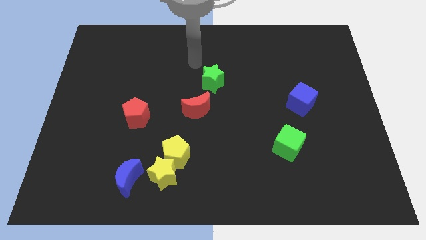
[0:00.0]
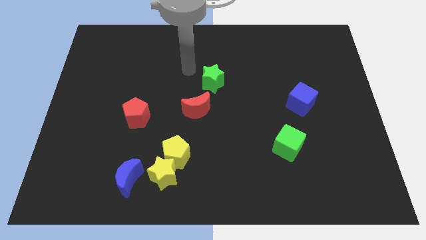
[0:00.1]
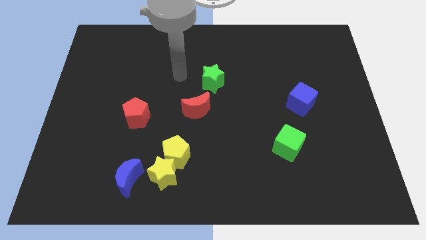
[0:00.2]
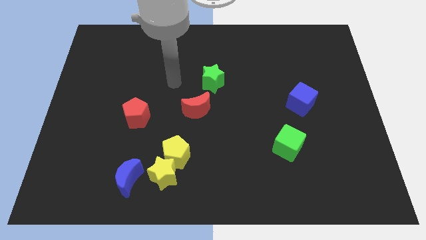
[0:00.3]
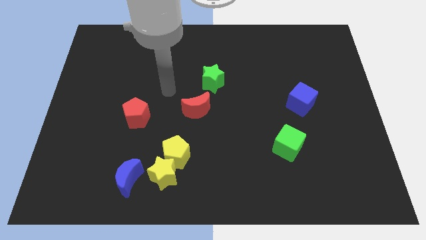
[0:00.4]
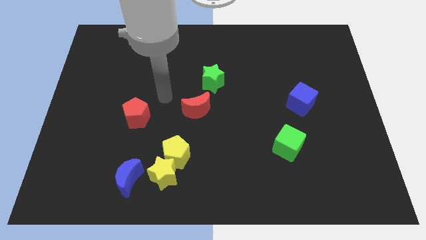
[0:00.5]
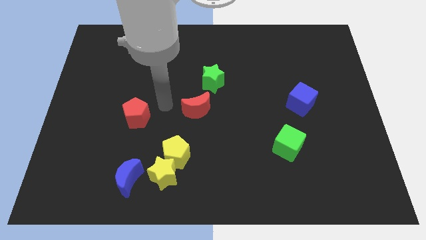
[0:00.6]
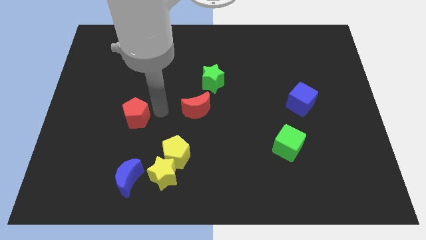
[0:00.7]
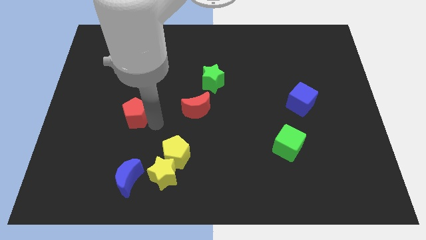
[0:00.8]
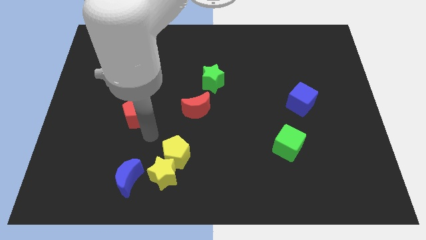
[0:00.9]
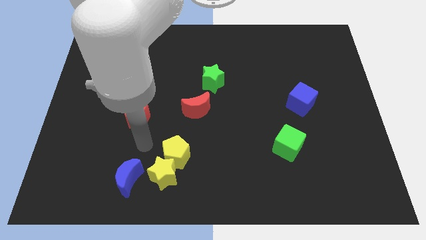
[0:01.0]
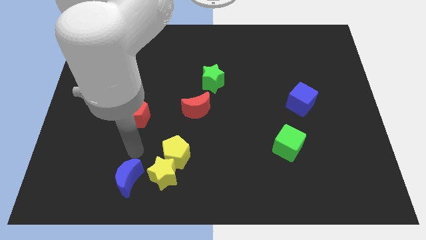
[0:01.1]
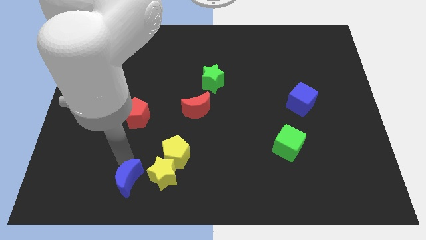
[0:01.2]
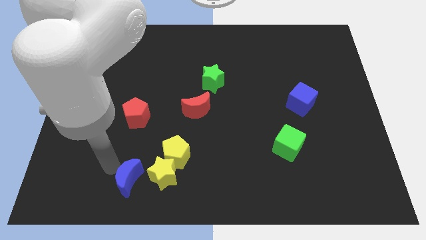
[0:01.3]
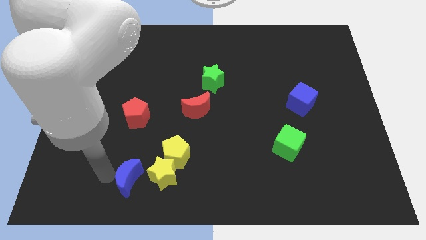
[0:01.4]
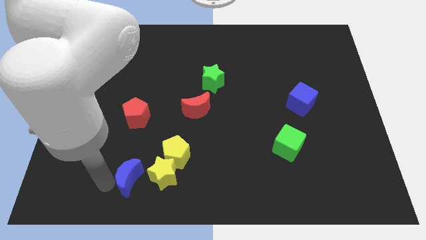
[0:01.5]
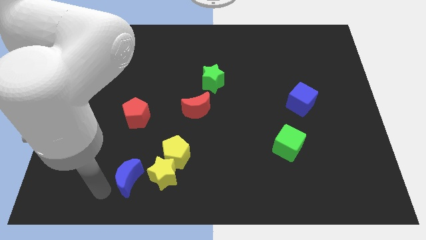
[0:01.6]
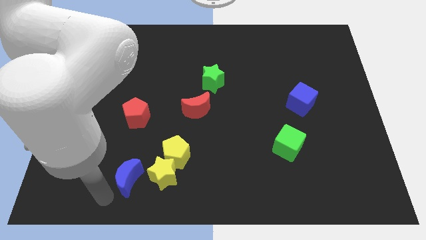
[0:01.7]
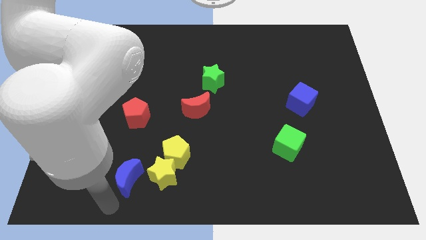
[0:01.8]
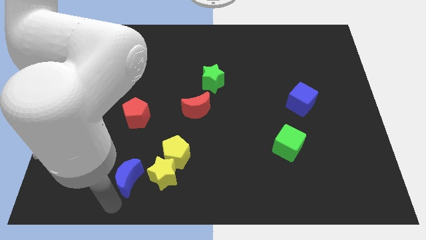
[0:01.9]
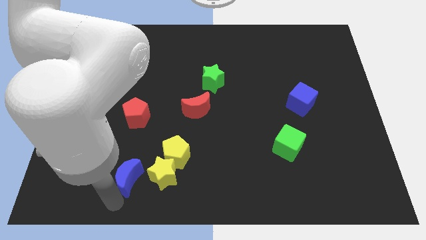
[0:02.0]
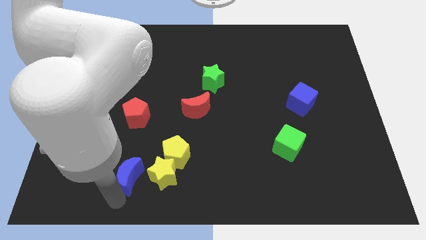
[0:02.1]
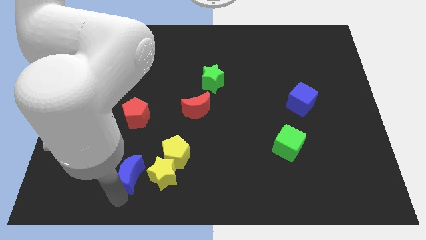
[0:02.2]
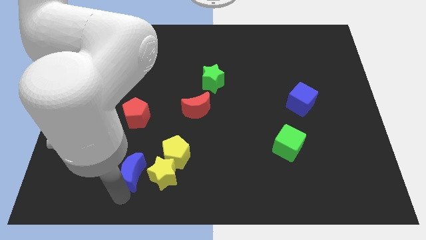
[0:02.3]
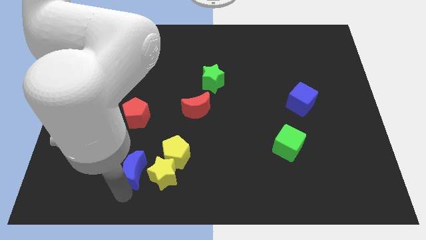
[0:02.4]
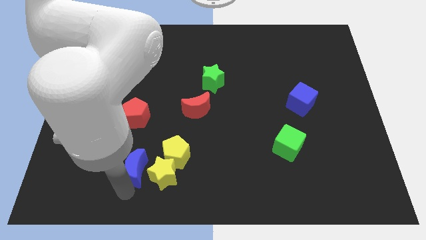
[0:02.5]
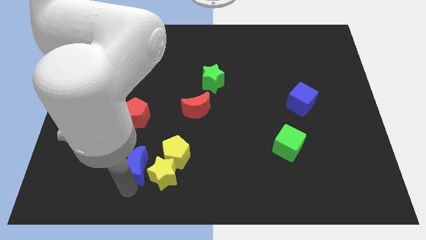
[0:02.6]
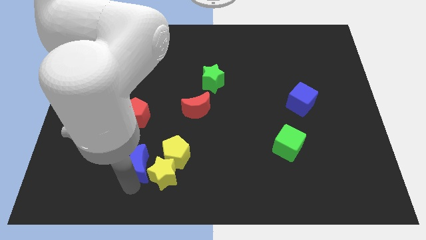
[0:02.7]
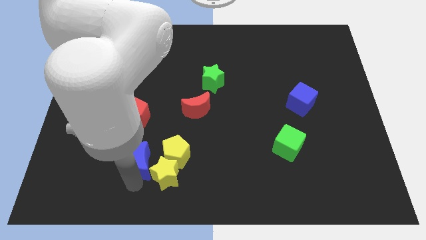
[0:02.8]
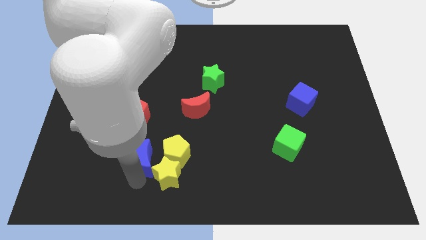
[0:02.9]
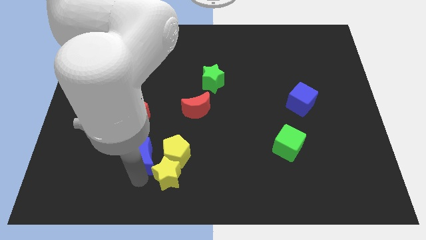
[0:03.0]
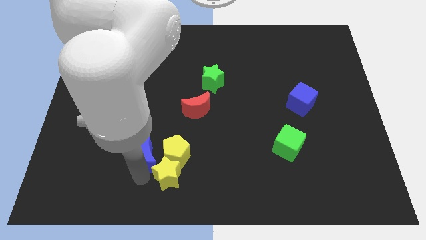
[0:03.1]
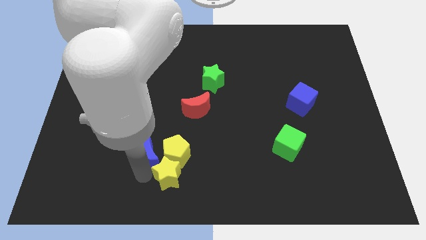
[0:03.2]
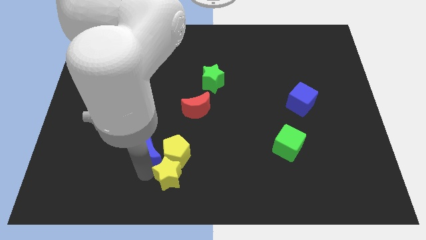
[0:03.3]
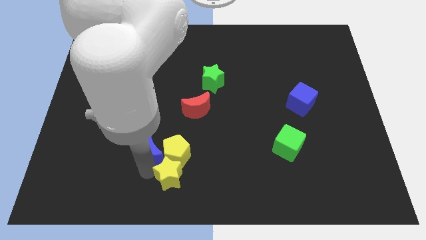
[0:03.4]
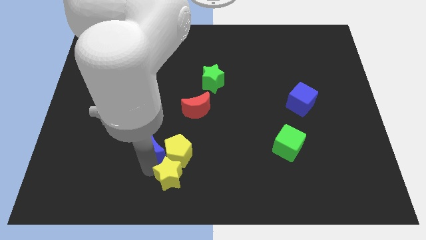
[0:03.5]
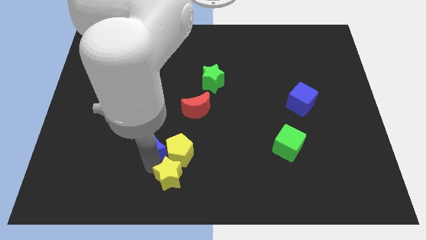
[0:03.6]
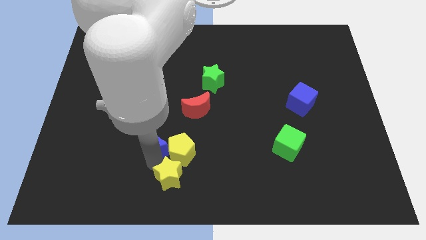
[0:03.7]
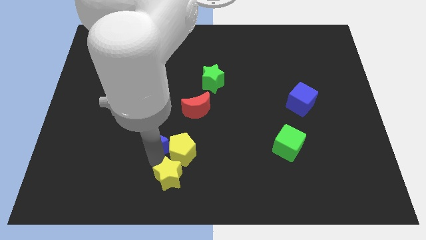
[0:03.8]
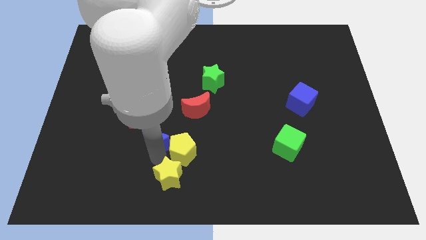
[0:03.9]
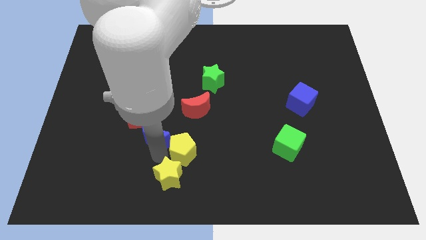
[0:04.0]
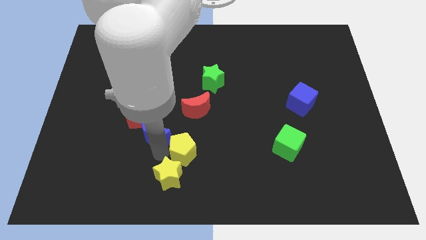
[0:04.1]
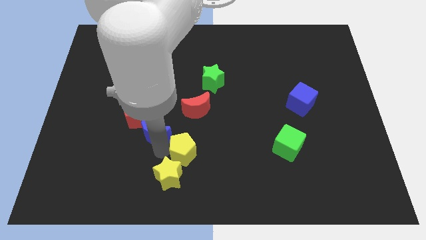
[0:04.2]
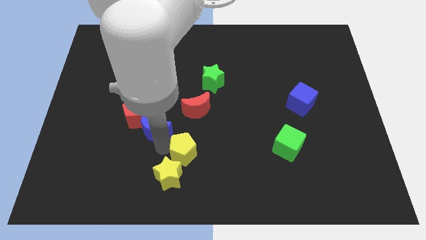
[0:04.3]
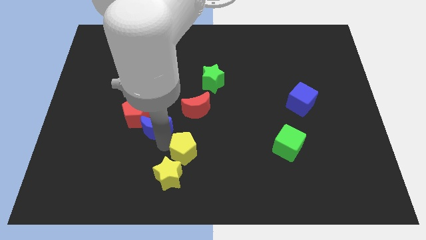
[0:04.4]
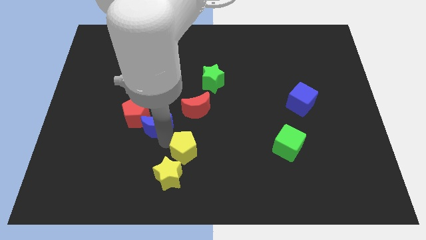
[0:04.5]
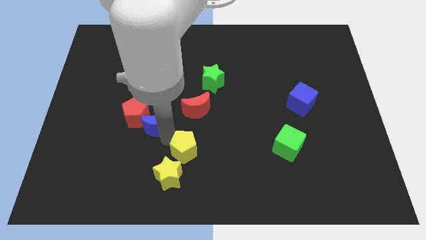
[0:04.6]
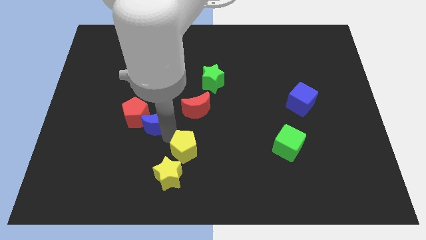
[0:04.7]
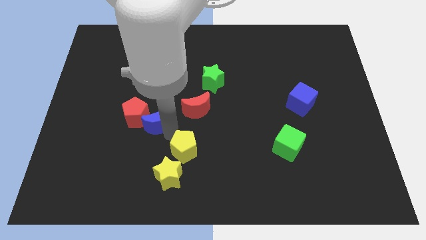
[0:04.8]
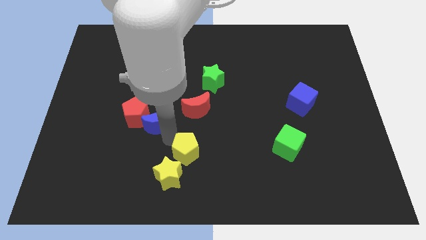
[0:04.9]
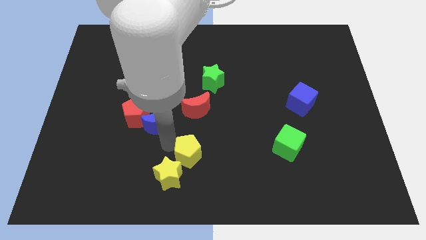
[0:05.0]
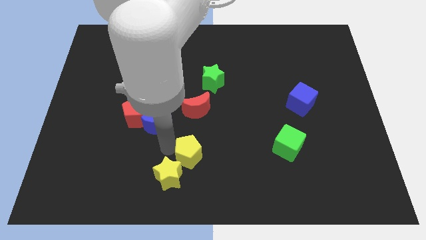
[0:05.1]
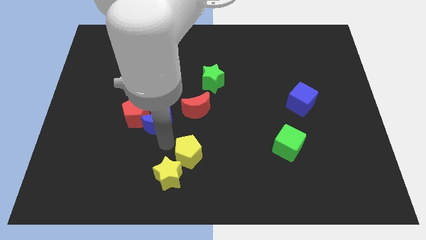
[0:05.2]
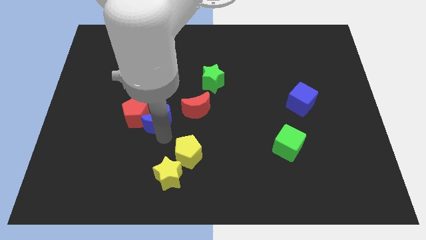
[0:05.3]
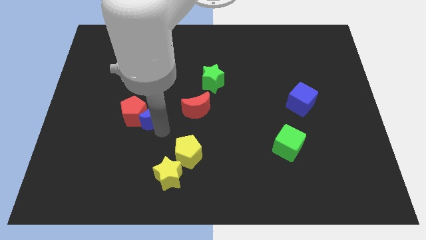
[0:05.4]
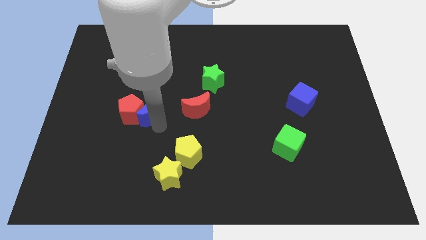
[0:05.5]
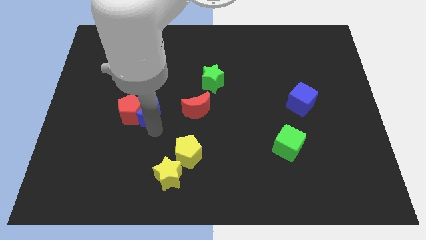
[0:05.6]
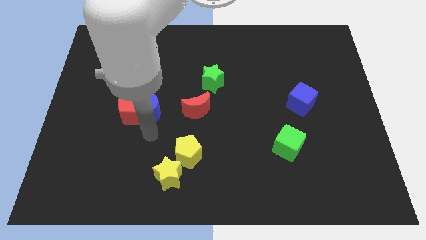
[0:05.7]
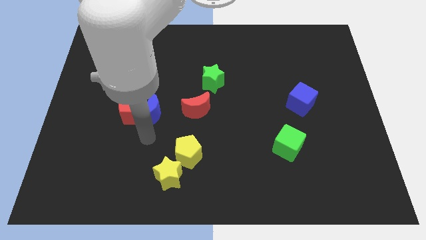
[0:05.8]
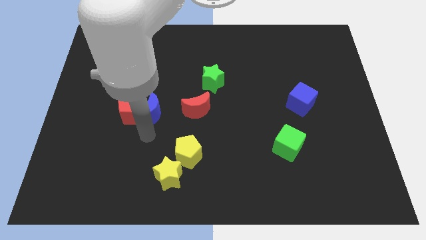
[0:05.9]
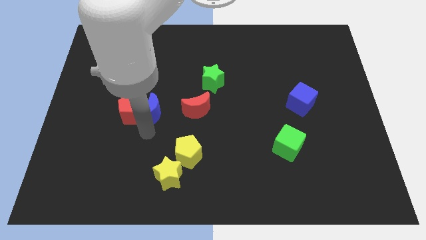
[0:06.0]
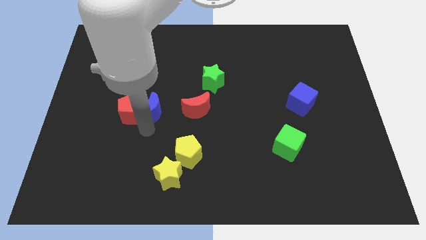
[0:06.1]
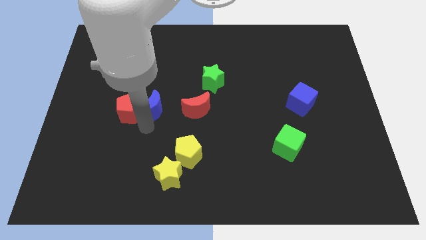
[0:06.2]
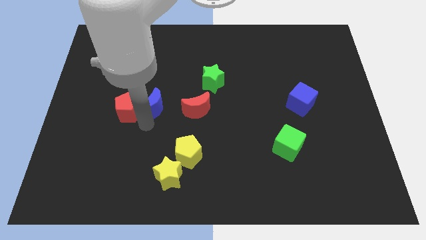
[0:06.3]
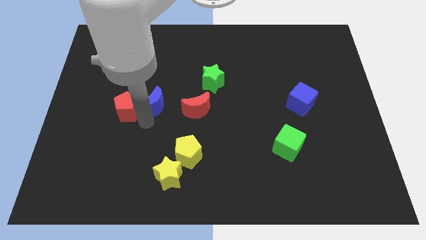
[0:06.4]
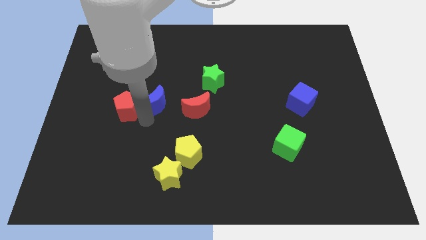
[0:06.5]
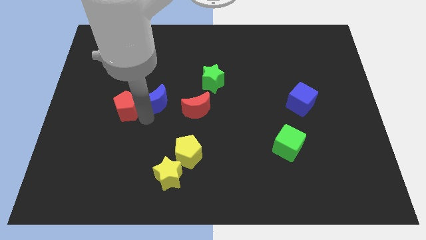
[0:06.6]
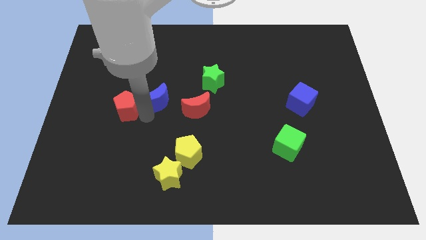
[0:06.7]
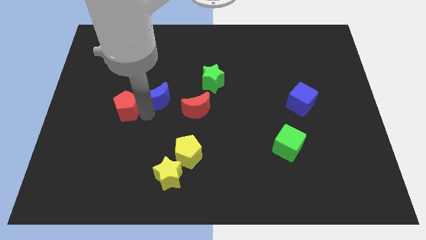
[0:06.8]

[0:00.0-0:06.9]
move the blue moon upwards

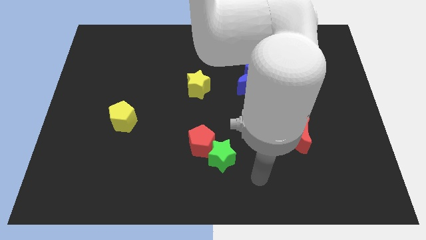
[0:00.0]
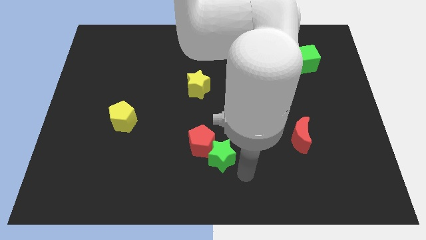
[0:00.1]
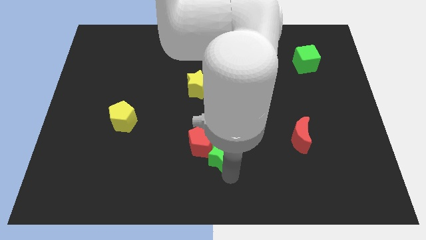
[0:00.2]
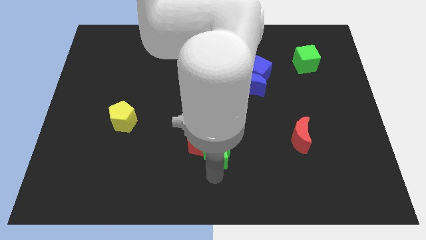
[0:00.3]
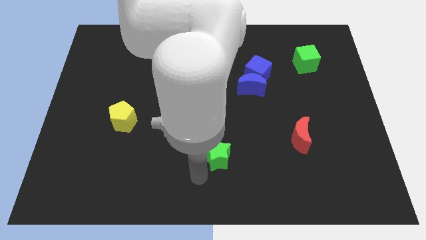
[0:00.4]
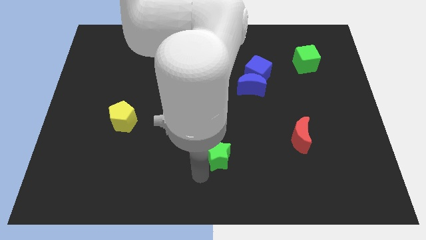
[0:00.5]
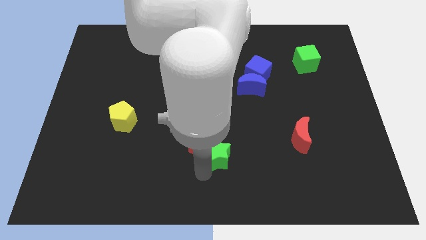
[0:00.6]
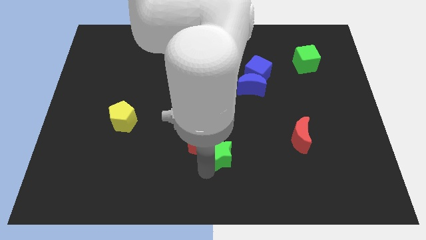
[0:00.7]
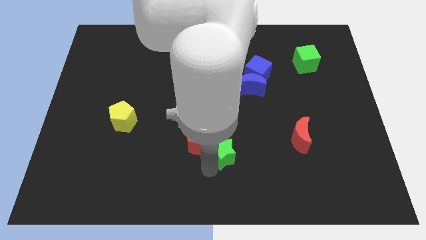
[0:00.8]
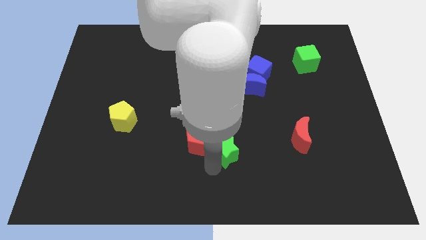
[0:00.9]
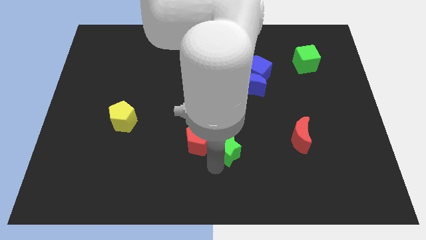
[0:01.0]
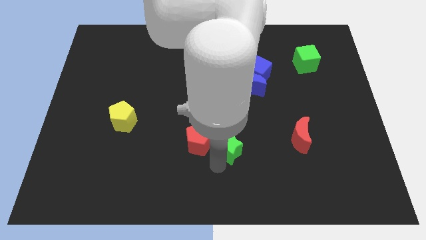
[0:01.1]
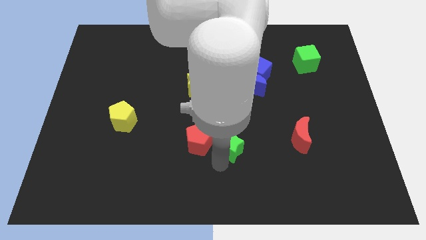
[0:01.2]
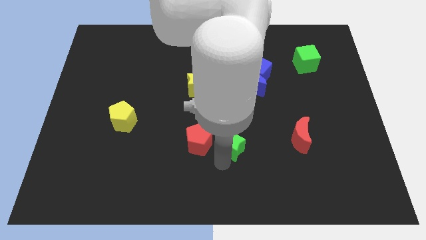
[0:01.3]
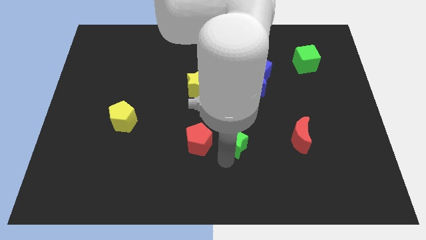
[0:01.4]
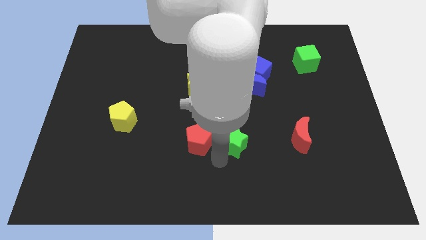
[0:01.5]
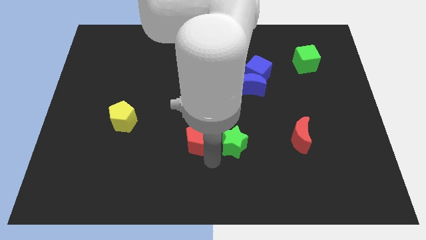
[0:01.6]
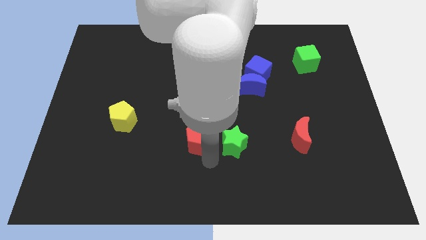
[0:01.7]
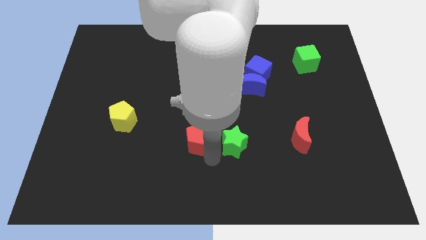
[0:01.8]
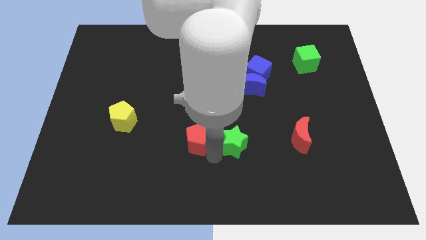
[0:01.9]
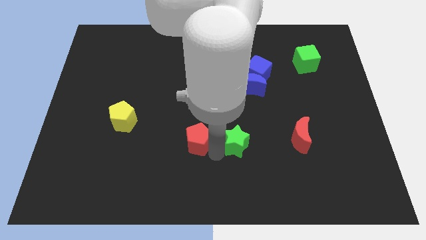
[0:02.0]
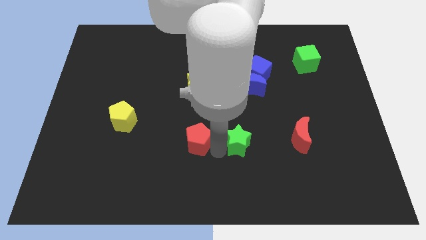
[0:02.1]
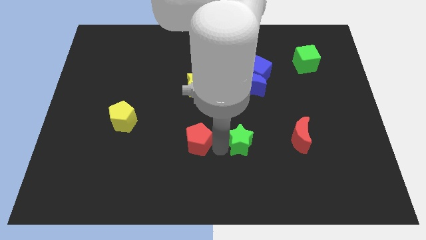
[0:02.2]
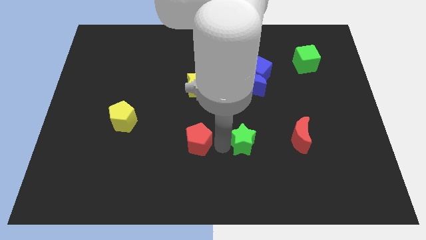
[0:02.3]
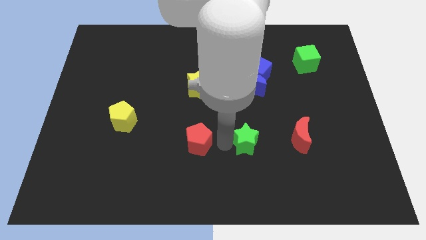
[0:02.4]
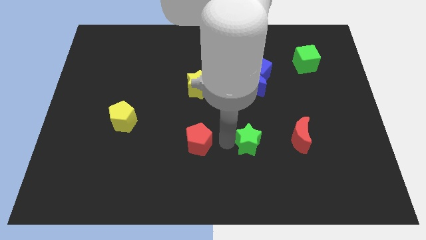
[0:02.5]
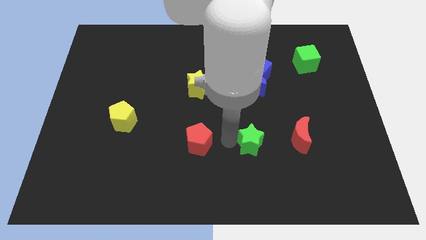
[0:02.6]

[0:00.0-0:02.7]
slightly move the green star upwards and to the right
